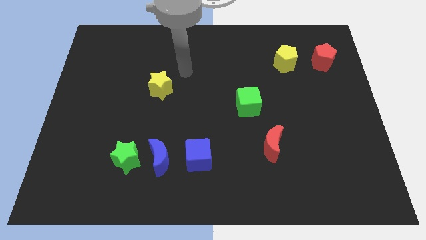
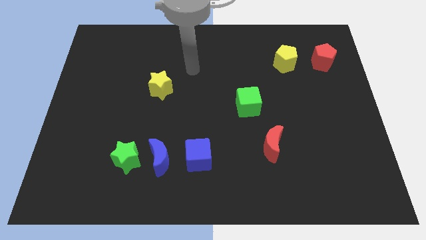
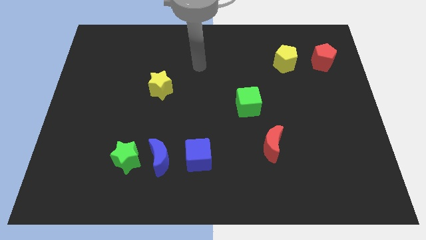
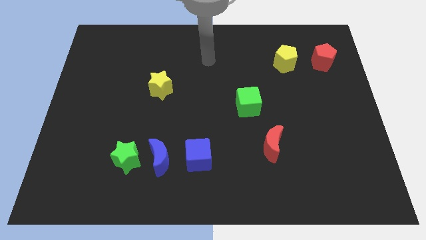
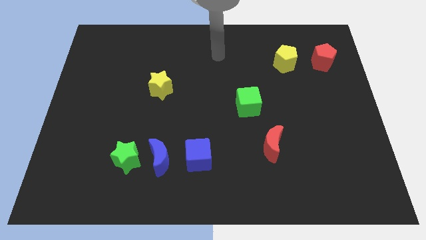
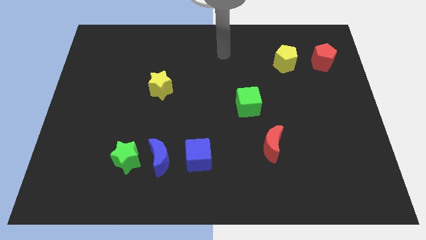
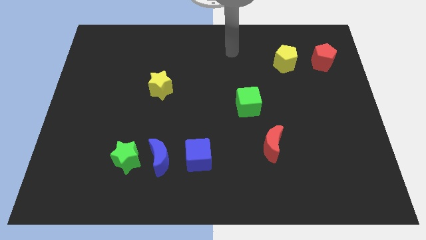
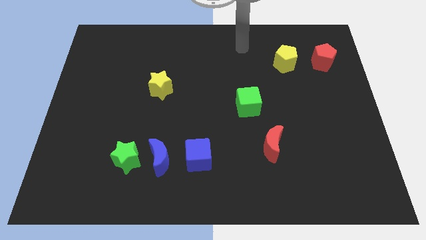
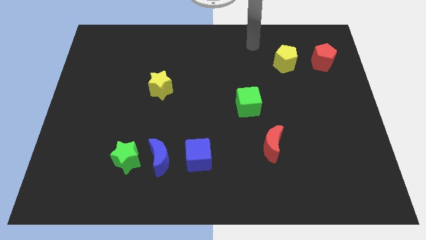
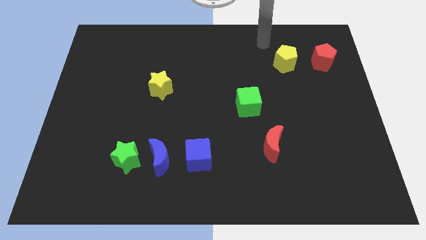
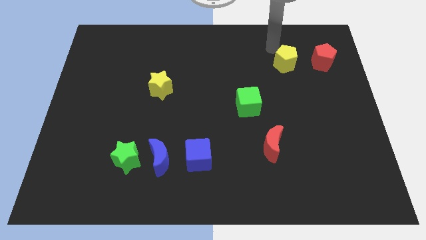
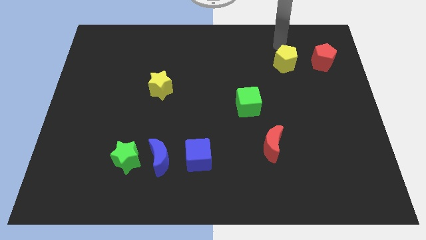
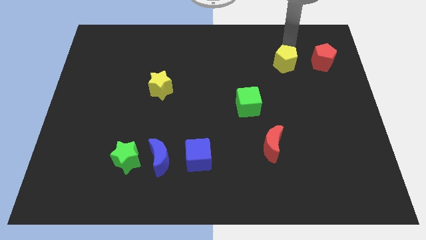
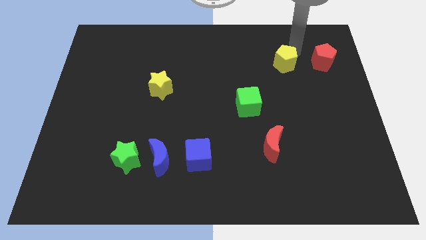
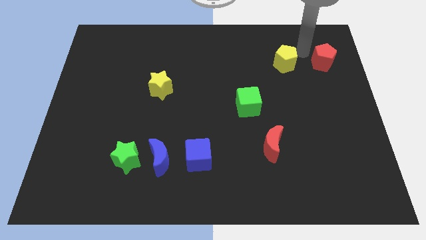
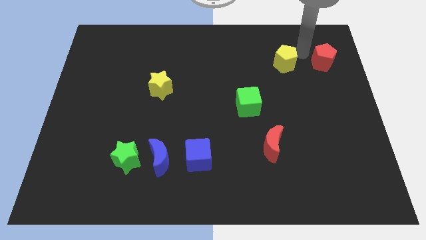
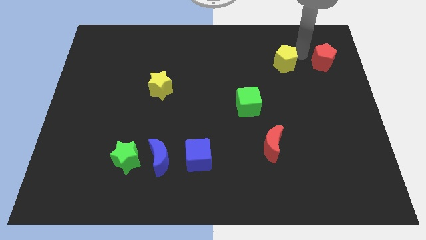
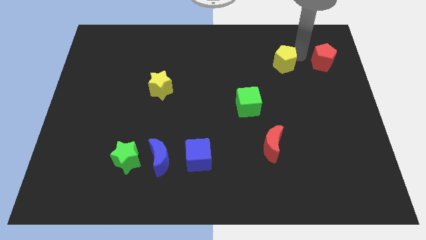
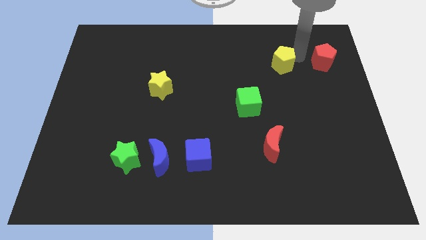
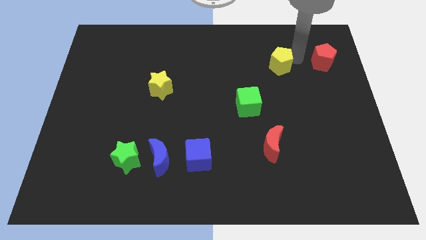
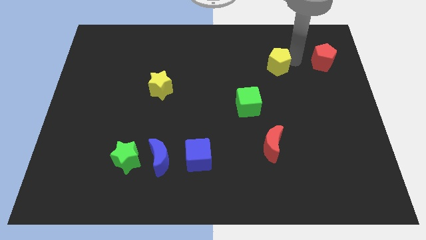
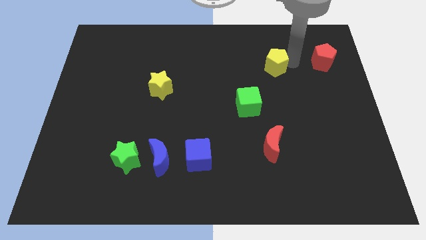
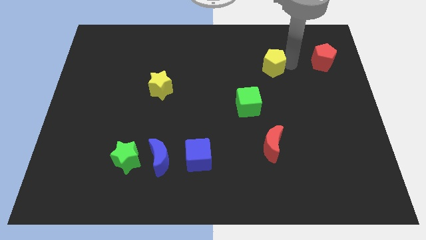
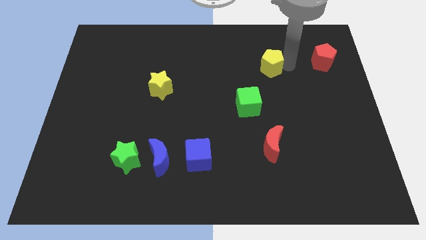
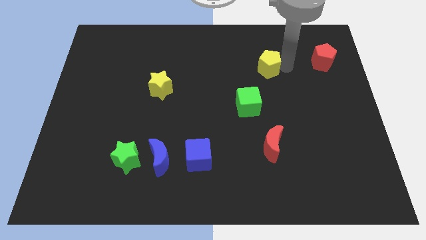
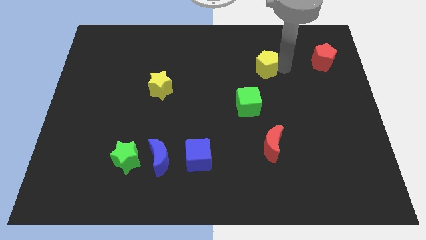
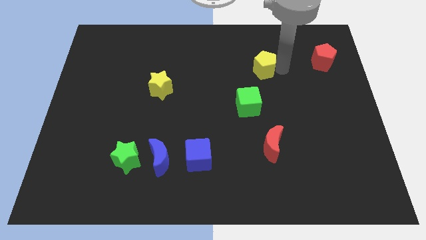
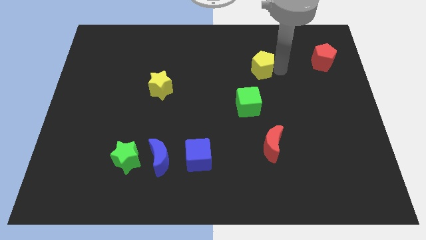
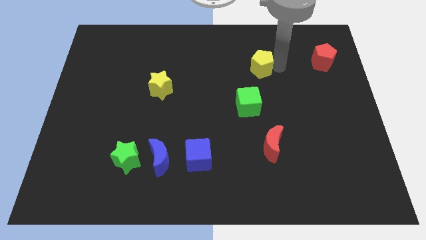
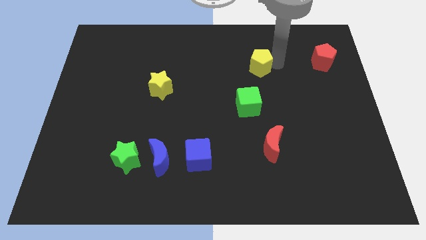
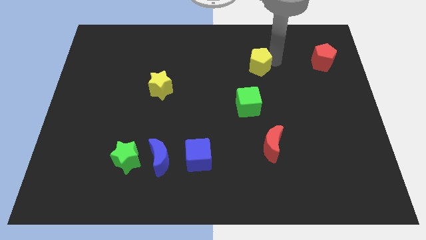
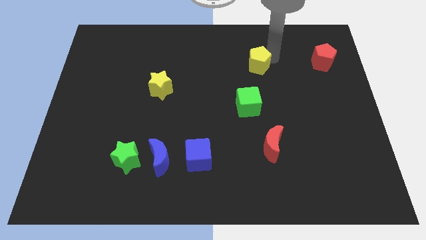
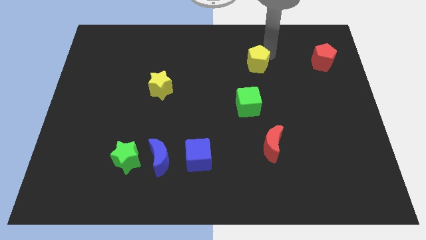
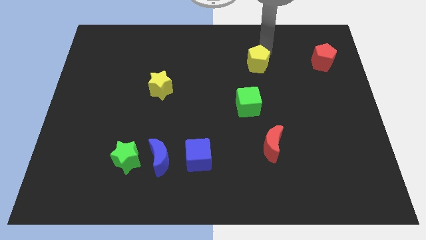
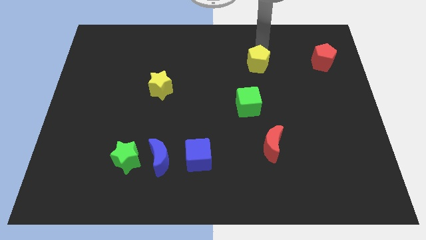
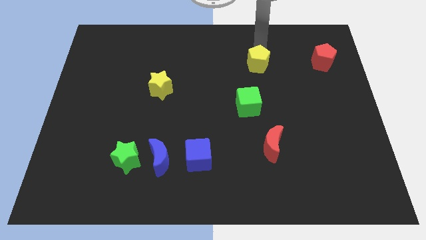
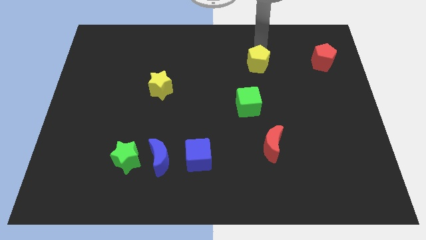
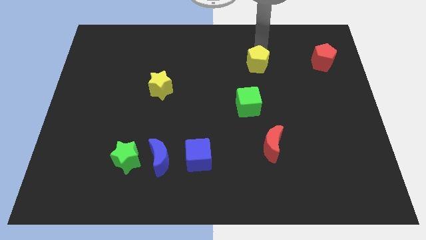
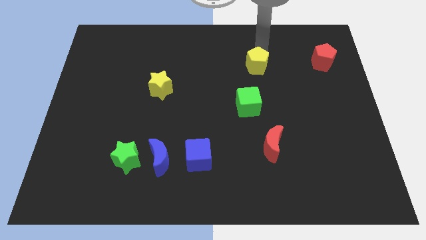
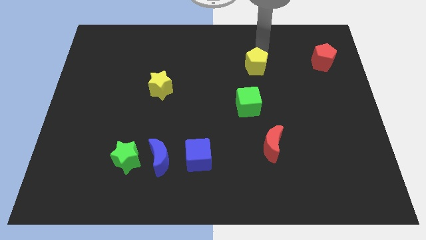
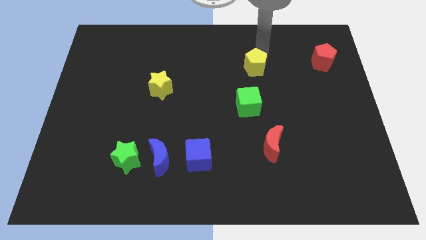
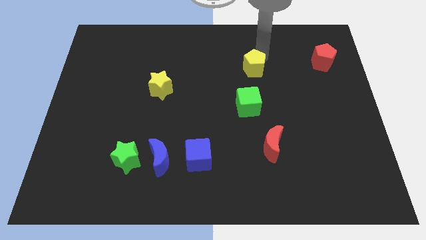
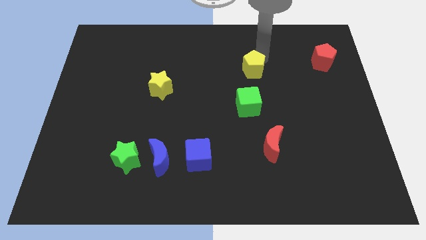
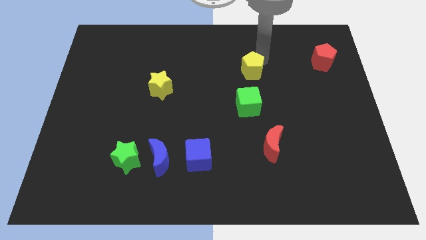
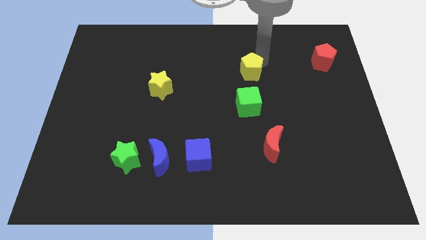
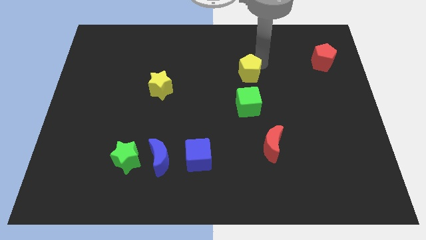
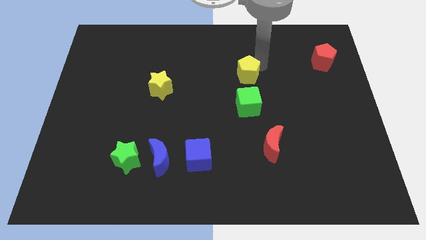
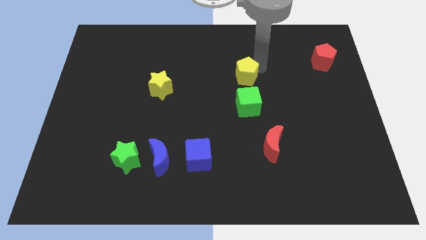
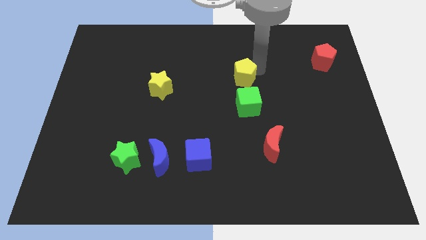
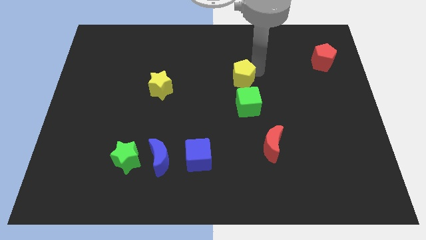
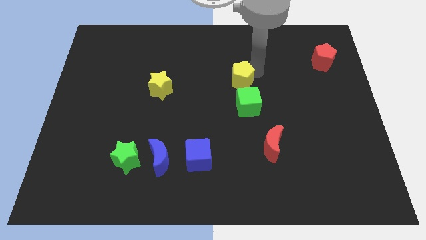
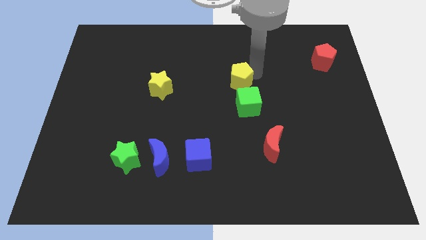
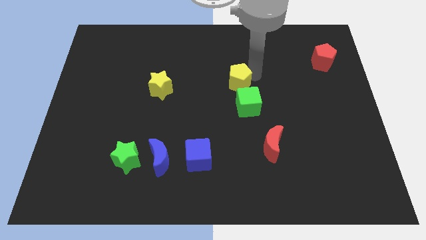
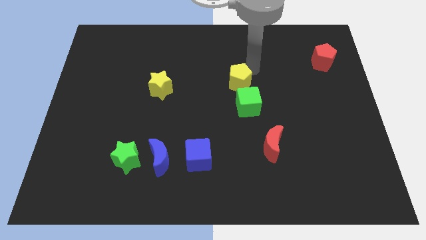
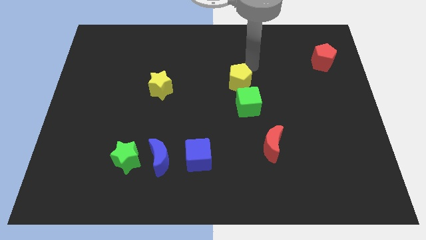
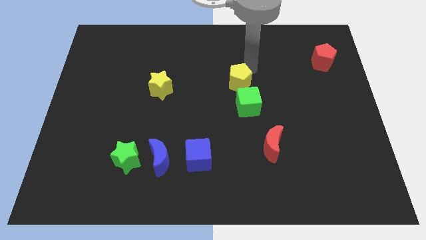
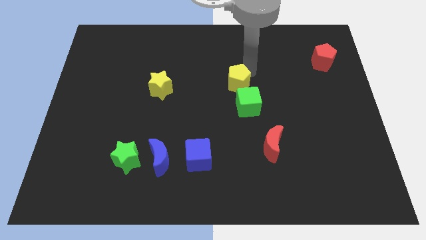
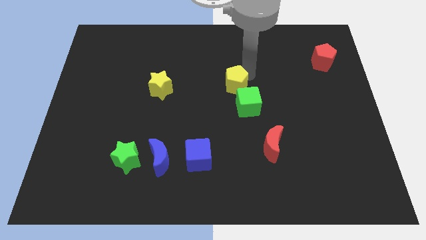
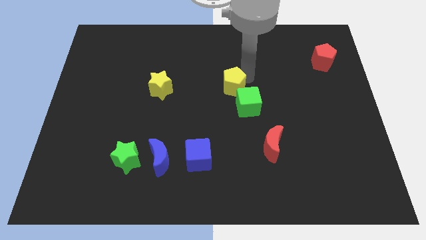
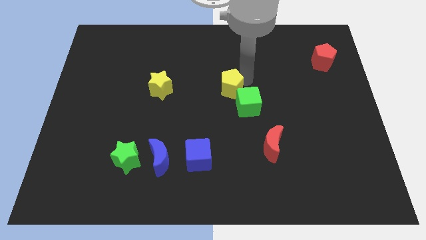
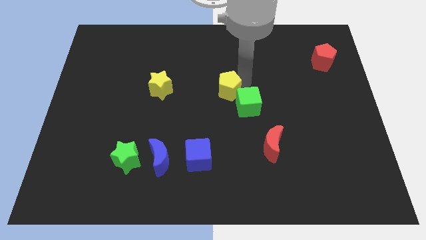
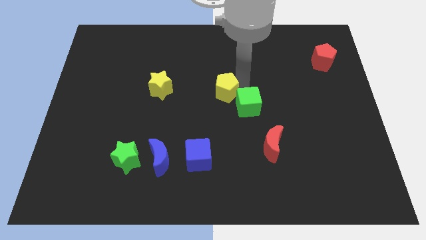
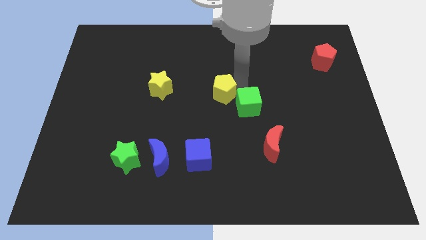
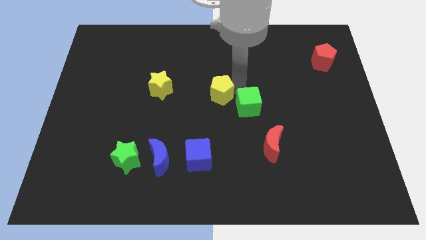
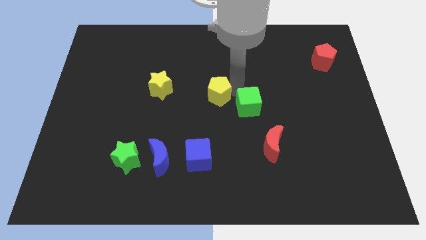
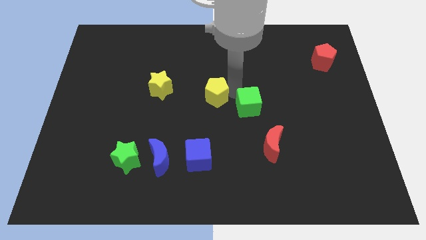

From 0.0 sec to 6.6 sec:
move the yellow pentagon diagonally down and left

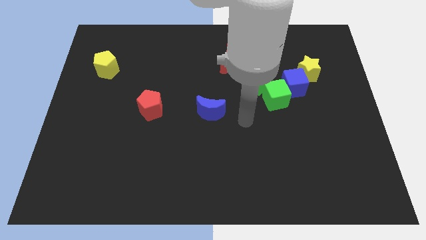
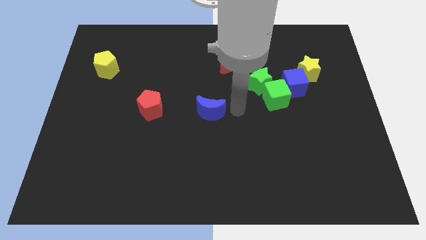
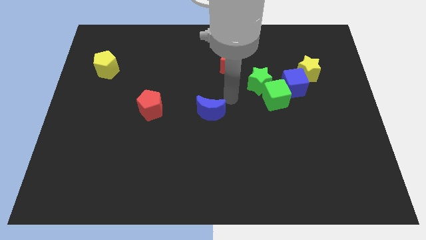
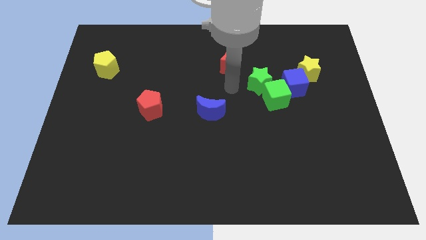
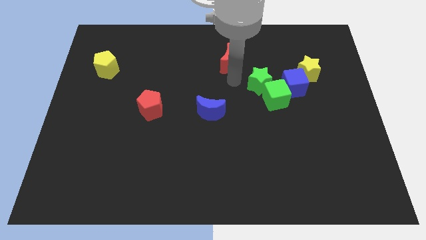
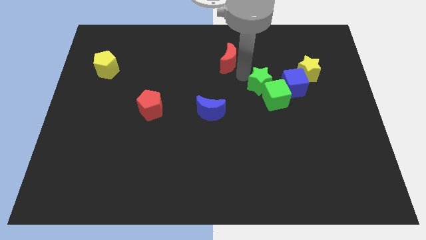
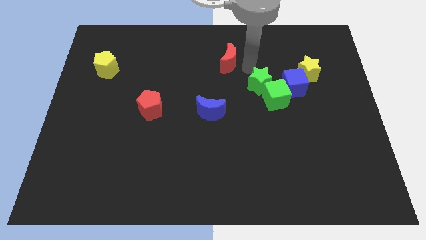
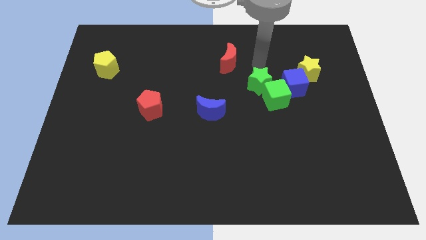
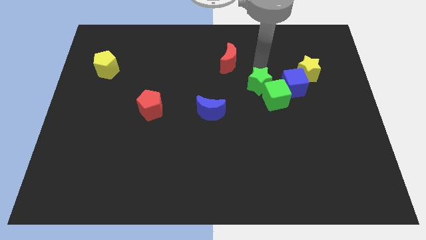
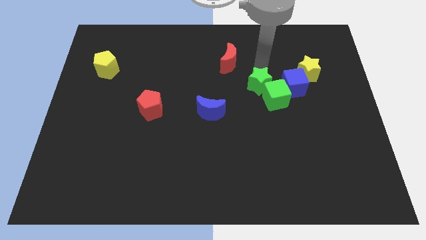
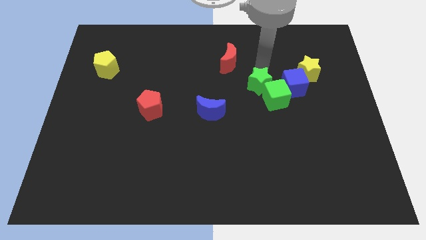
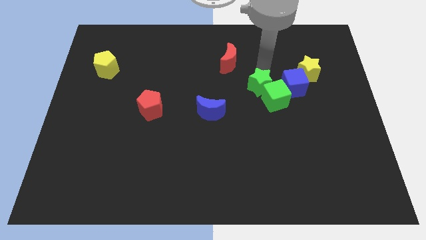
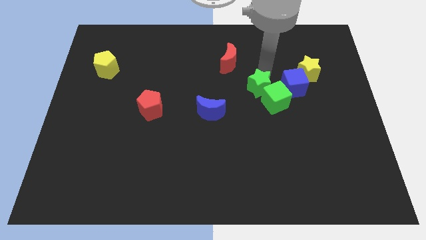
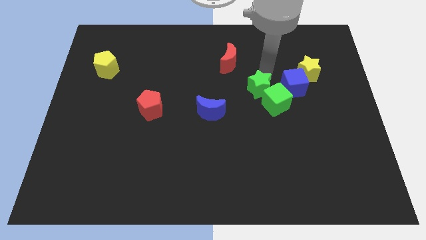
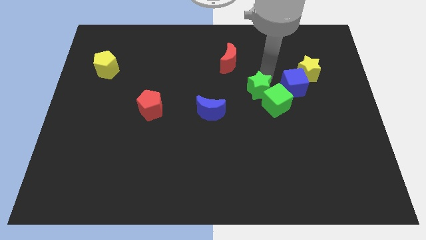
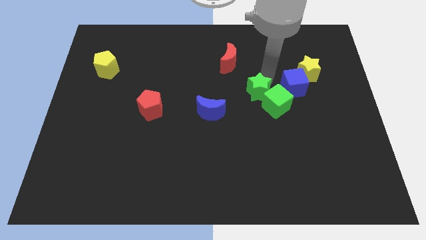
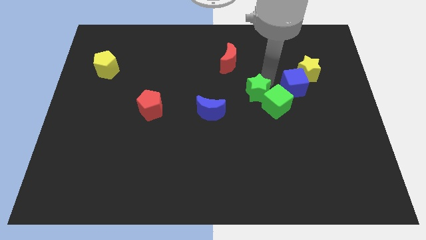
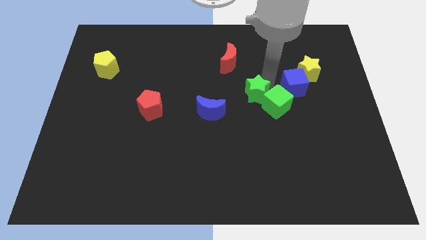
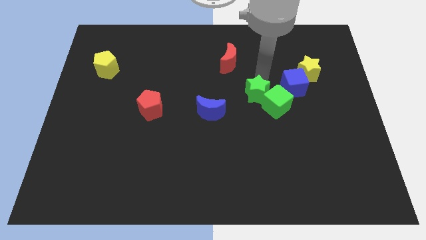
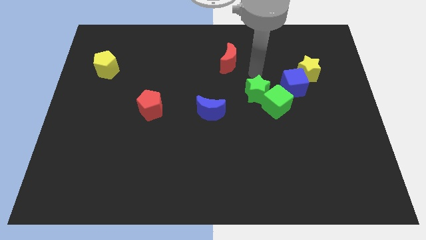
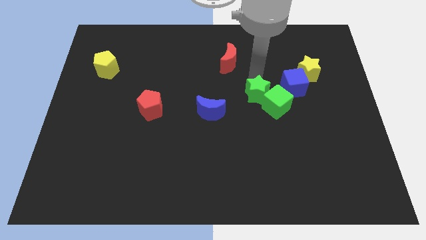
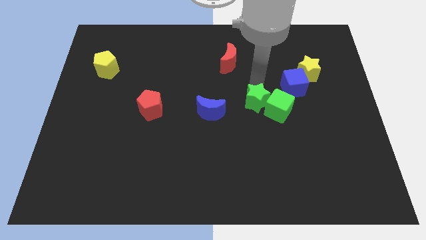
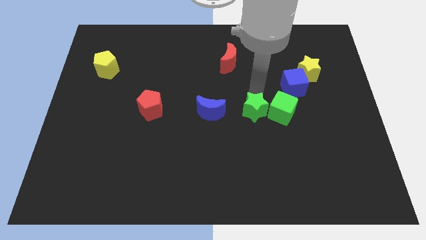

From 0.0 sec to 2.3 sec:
slightly move the green star downwards
